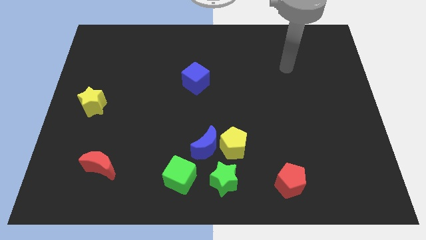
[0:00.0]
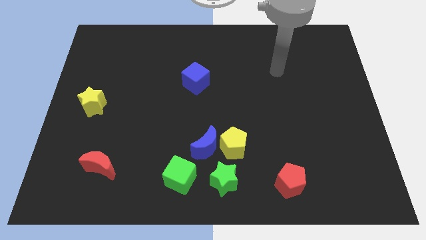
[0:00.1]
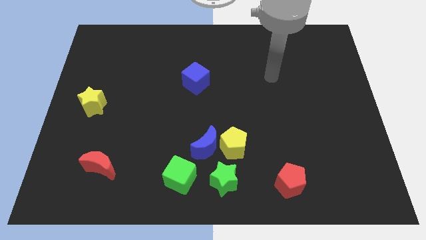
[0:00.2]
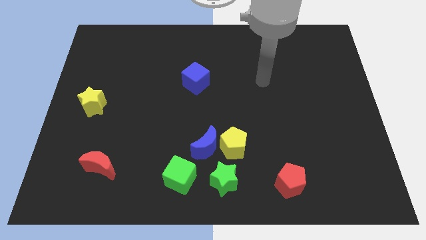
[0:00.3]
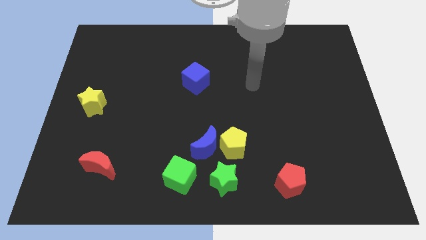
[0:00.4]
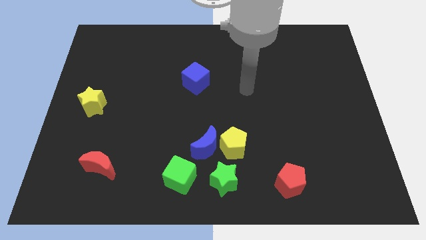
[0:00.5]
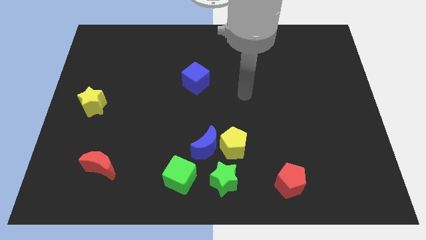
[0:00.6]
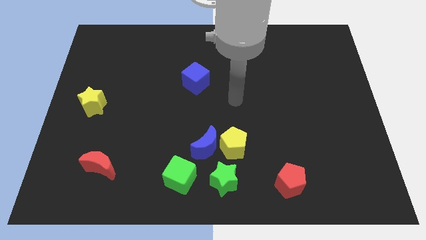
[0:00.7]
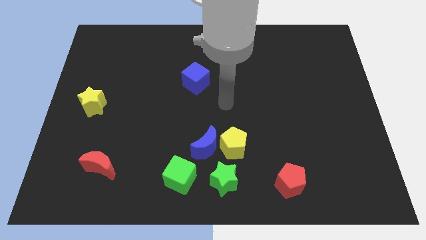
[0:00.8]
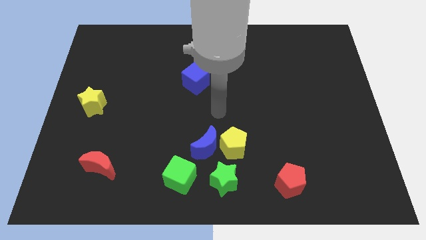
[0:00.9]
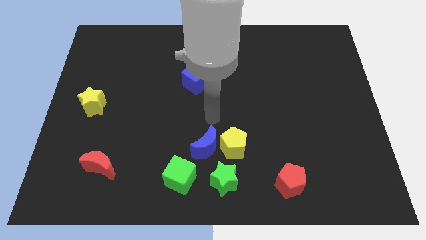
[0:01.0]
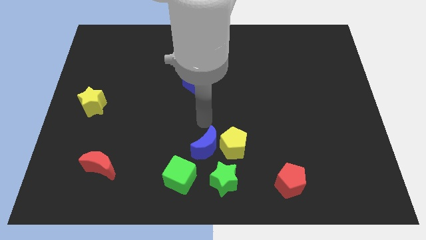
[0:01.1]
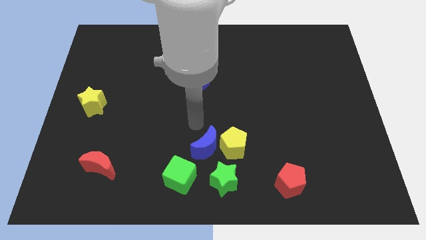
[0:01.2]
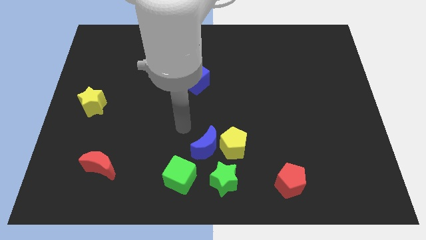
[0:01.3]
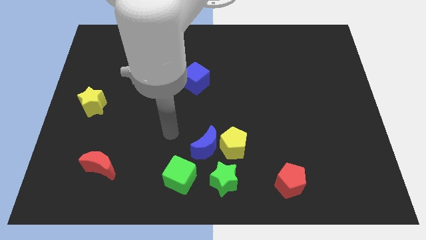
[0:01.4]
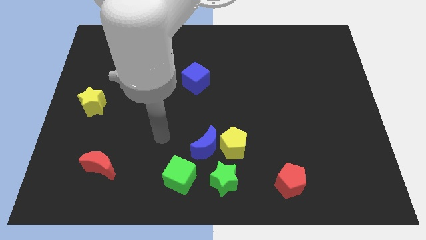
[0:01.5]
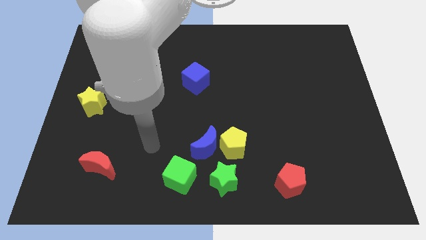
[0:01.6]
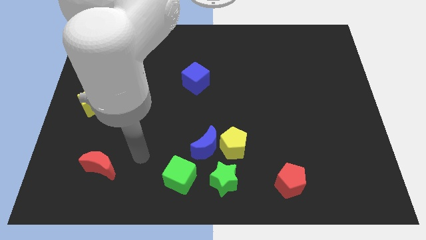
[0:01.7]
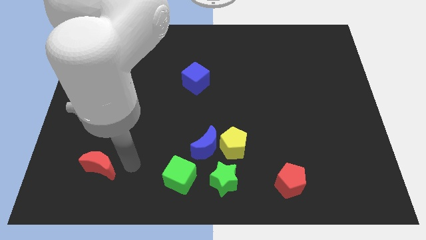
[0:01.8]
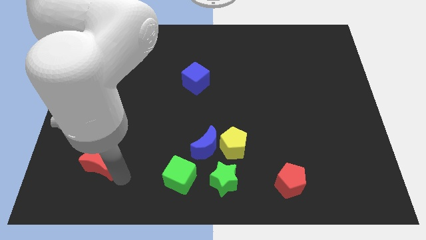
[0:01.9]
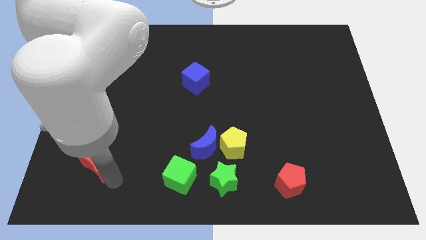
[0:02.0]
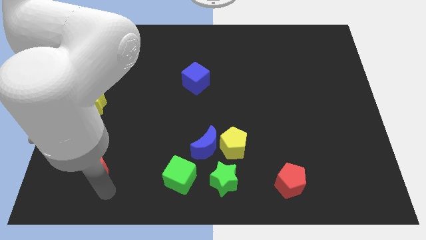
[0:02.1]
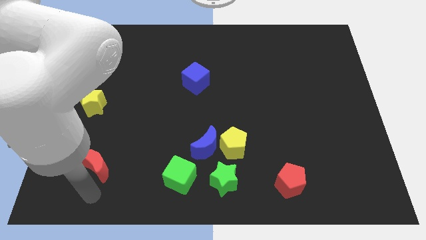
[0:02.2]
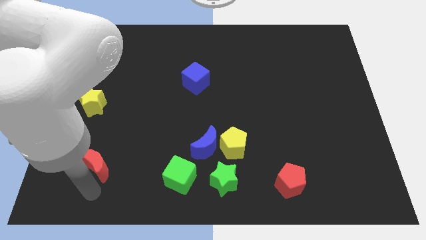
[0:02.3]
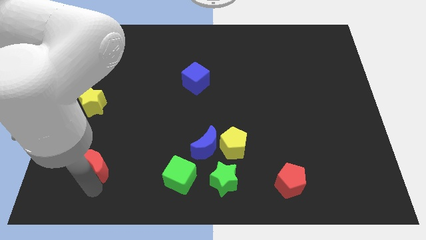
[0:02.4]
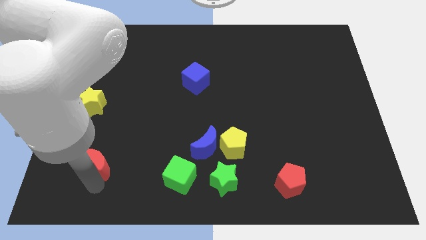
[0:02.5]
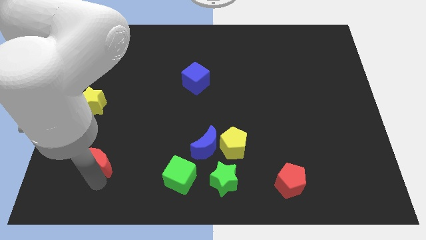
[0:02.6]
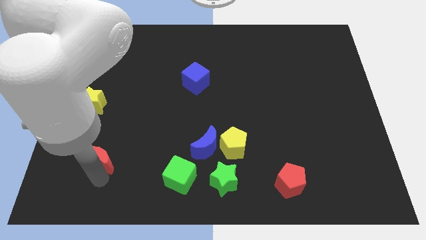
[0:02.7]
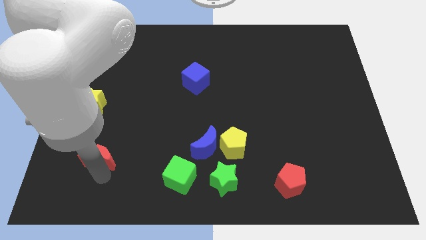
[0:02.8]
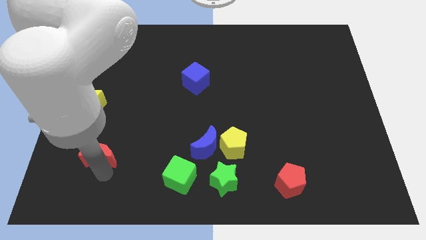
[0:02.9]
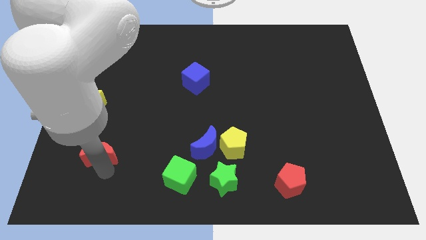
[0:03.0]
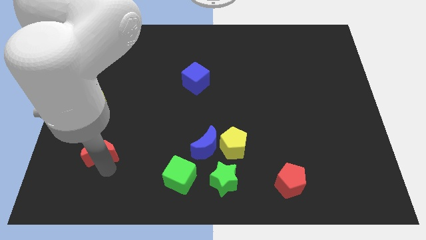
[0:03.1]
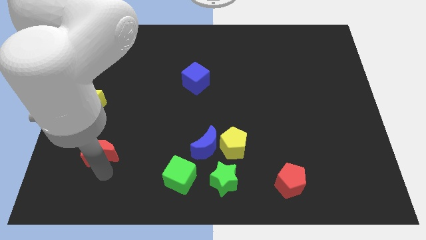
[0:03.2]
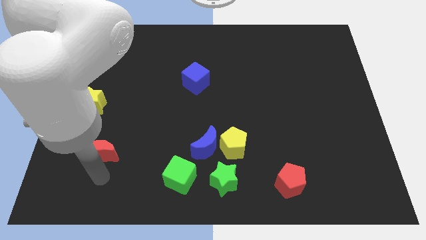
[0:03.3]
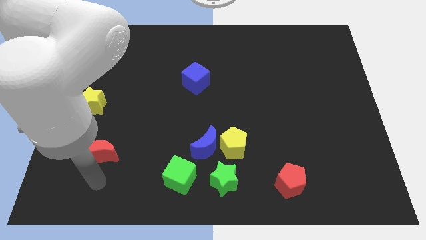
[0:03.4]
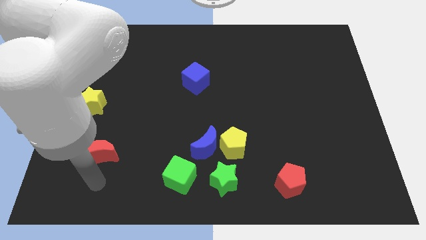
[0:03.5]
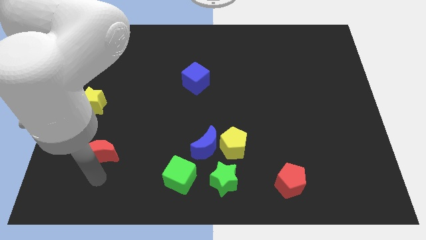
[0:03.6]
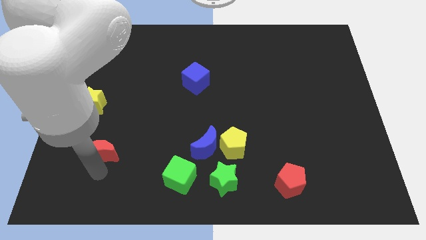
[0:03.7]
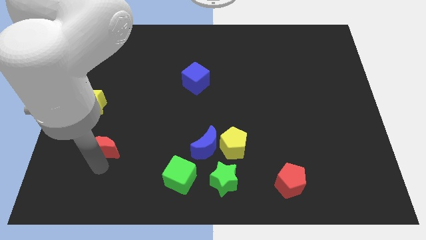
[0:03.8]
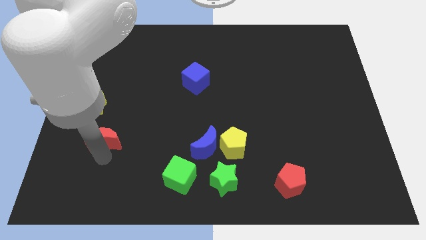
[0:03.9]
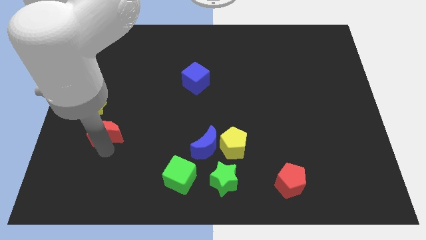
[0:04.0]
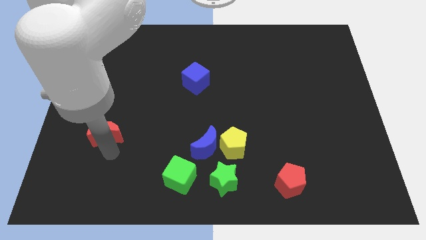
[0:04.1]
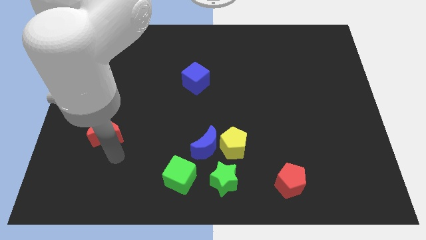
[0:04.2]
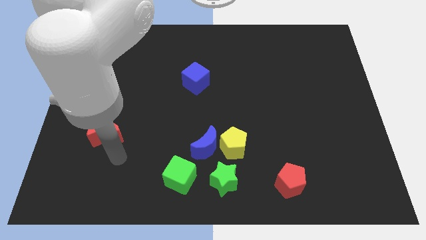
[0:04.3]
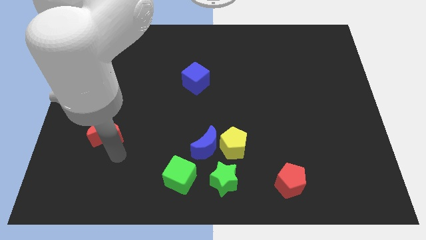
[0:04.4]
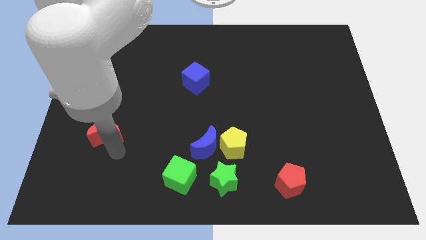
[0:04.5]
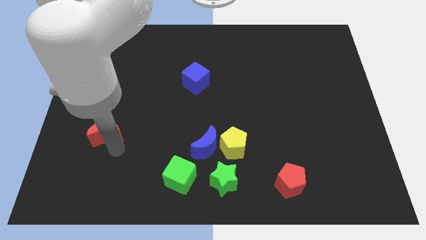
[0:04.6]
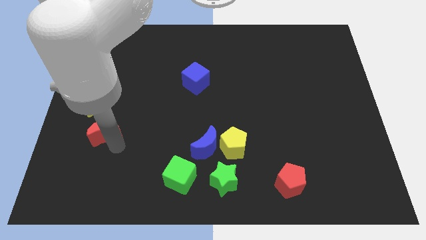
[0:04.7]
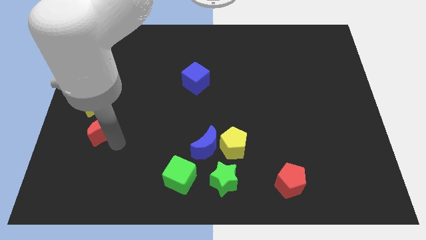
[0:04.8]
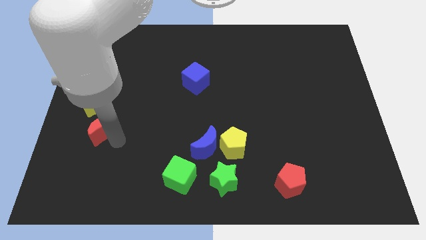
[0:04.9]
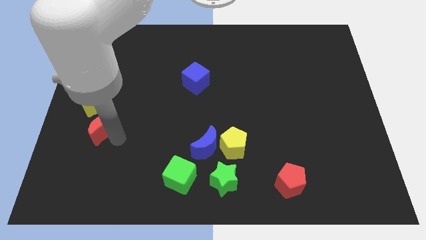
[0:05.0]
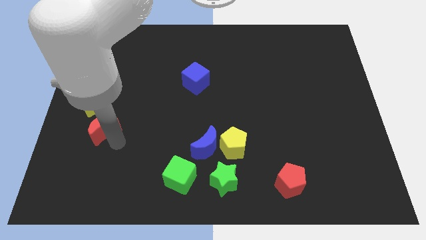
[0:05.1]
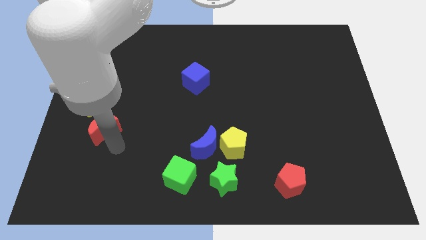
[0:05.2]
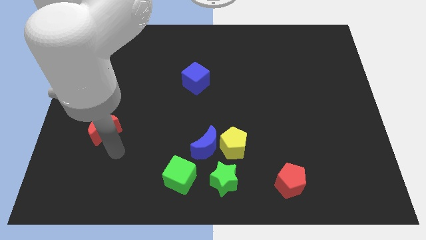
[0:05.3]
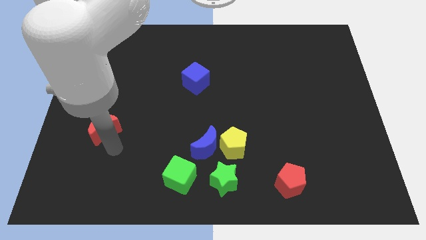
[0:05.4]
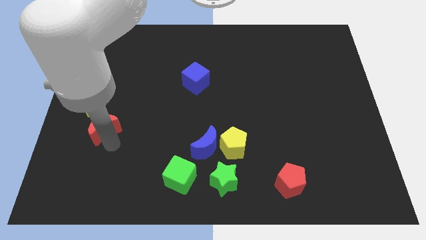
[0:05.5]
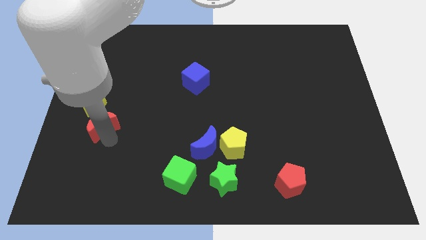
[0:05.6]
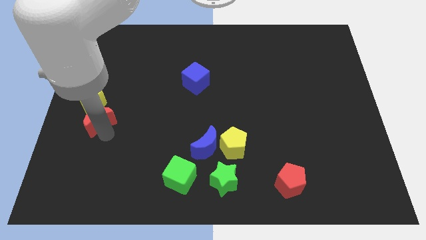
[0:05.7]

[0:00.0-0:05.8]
push the red moon towards the yellow star
